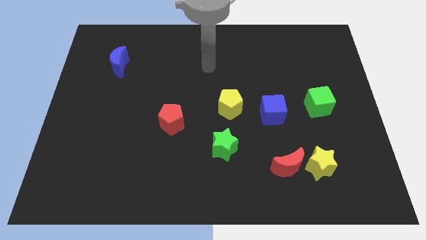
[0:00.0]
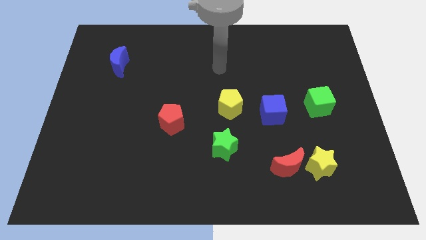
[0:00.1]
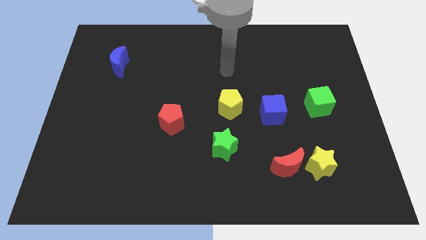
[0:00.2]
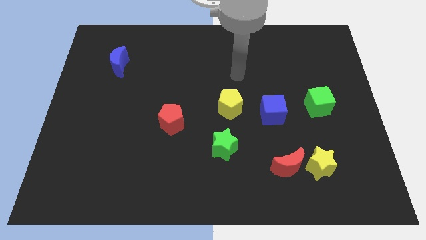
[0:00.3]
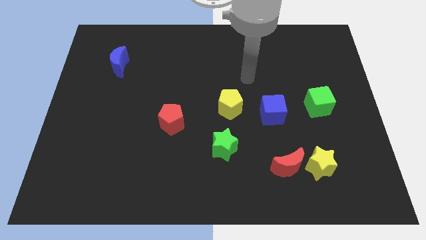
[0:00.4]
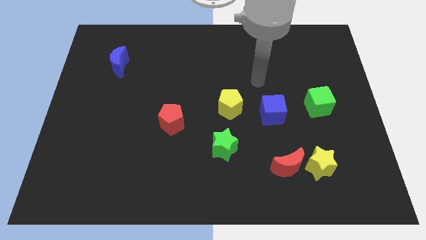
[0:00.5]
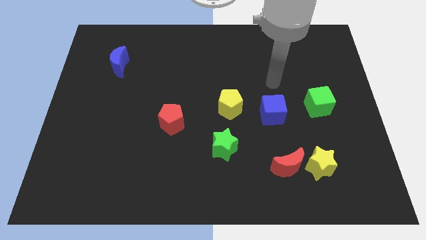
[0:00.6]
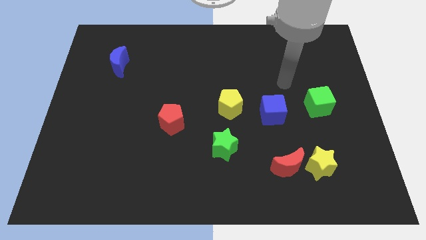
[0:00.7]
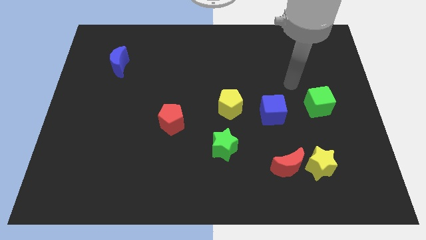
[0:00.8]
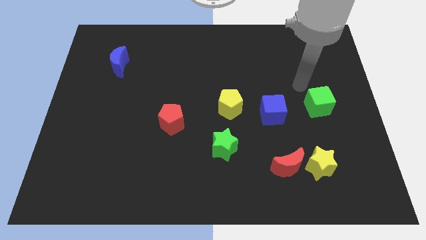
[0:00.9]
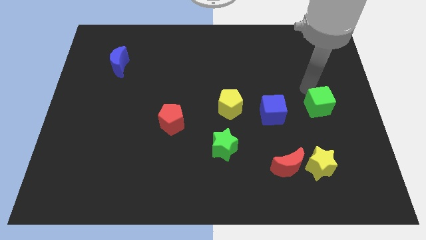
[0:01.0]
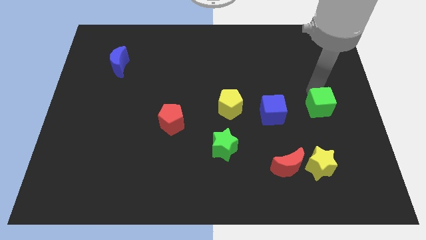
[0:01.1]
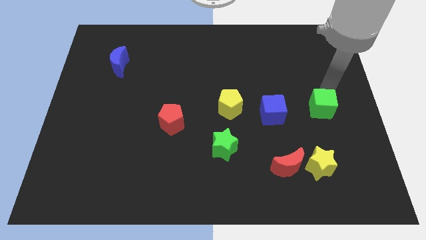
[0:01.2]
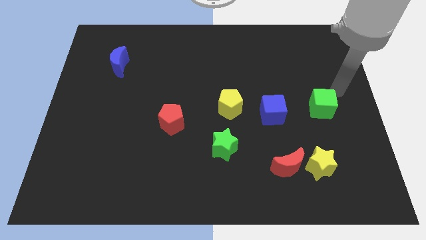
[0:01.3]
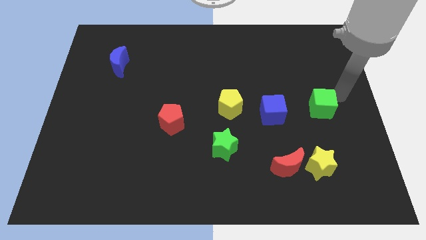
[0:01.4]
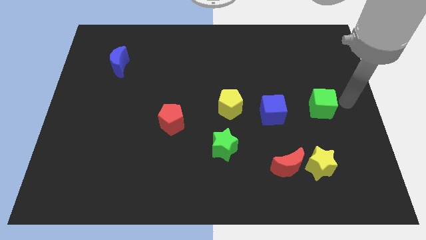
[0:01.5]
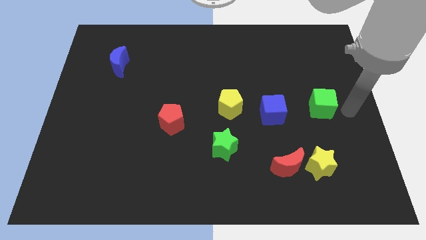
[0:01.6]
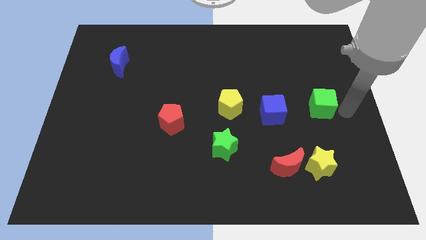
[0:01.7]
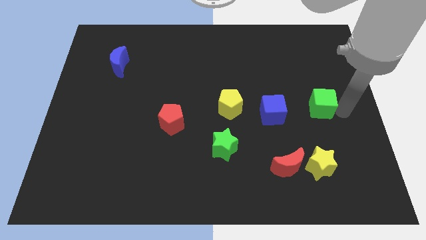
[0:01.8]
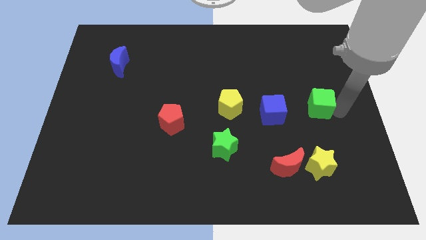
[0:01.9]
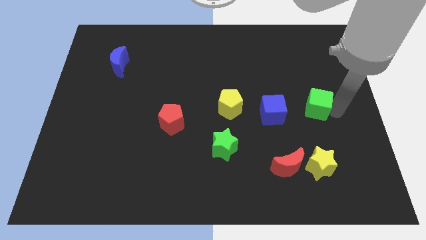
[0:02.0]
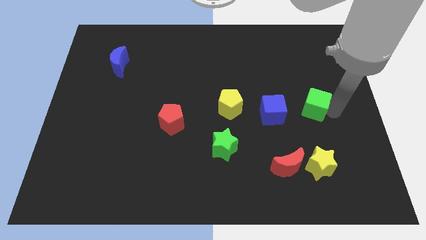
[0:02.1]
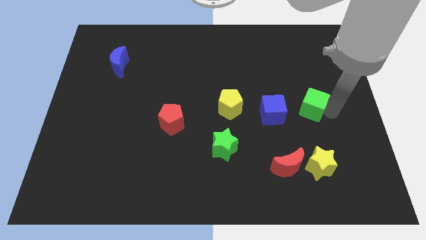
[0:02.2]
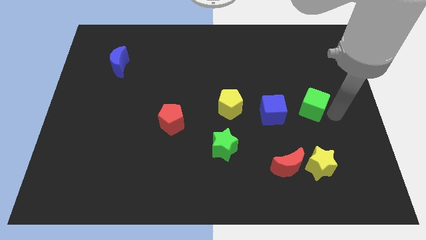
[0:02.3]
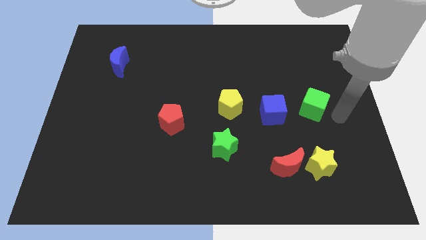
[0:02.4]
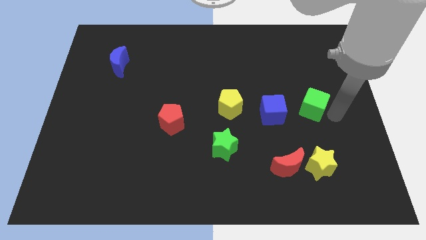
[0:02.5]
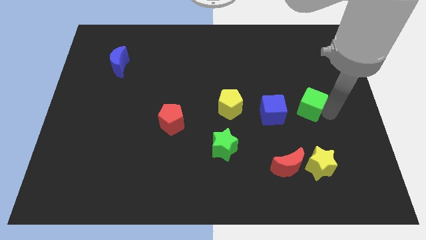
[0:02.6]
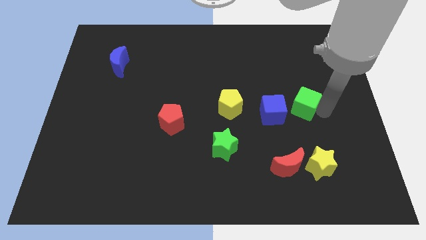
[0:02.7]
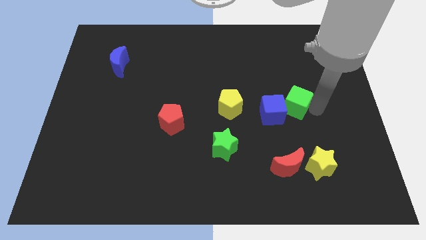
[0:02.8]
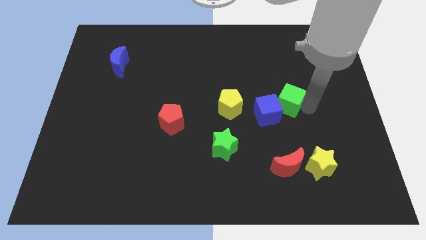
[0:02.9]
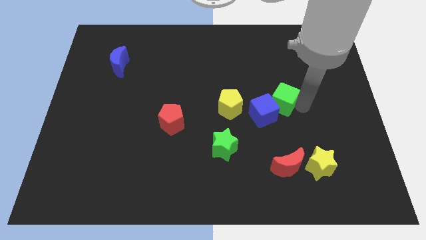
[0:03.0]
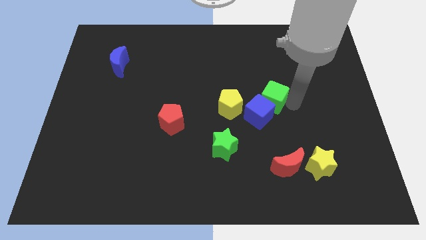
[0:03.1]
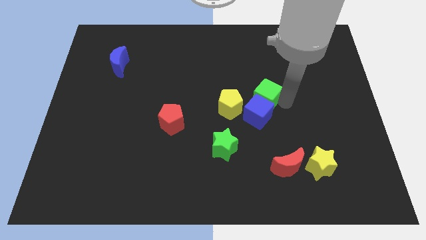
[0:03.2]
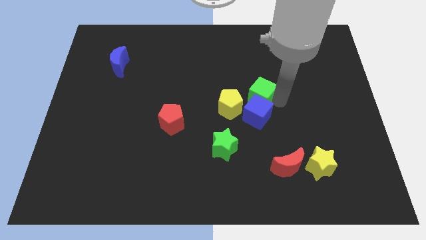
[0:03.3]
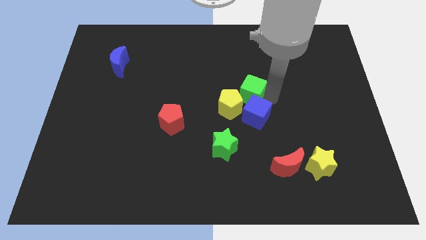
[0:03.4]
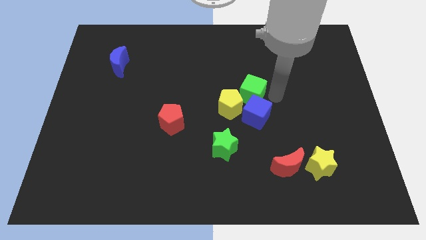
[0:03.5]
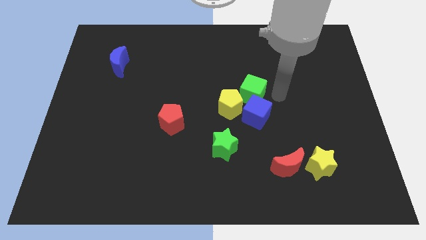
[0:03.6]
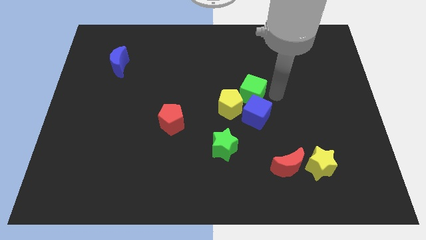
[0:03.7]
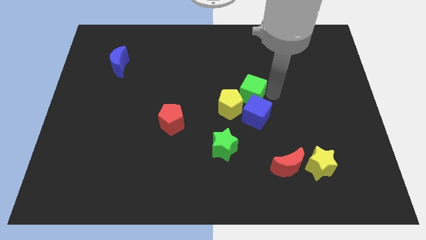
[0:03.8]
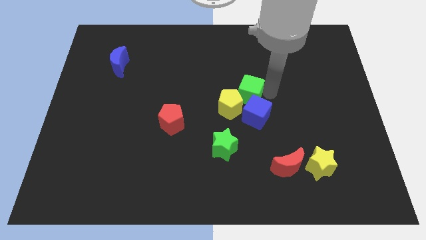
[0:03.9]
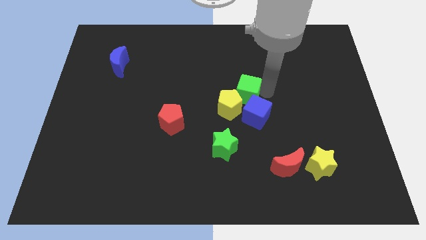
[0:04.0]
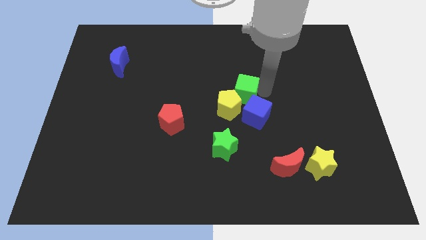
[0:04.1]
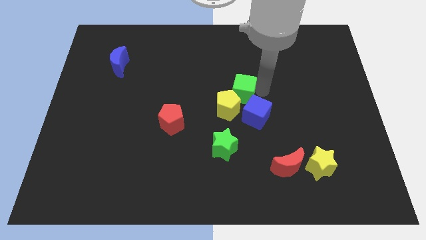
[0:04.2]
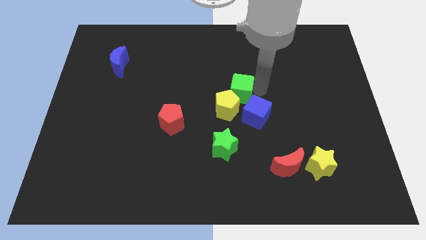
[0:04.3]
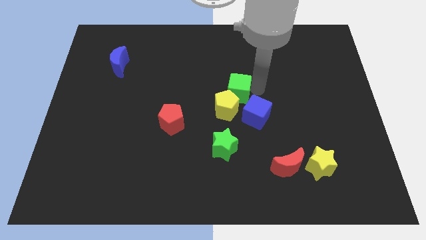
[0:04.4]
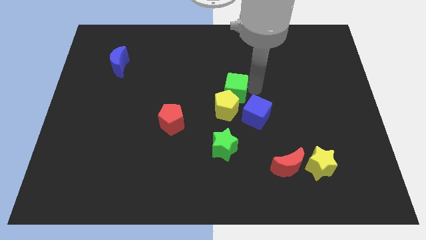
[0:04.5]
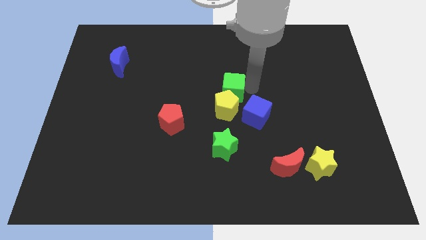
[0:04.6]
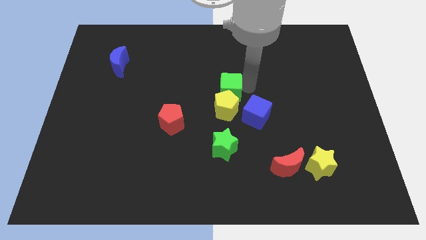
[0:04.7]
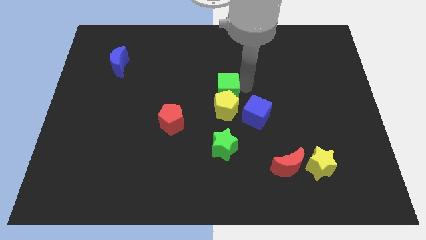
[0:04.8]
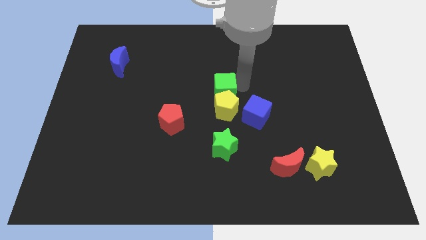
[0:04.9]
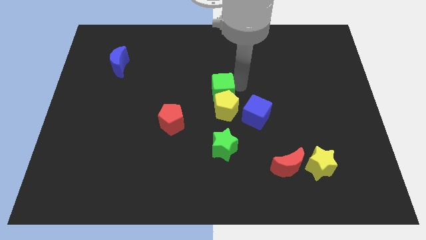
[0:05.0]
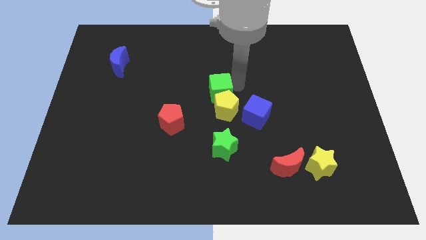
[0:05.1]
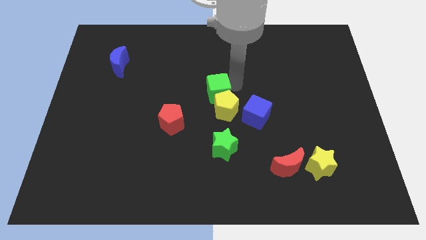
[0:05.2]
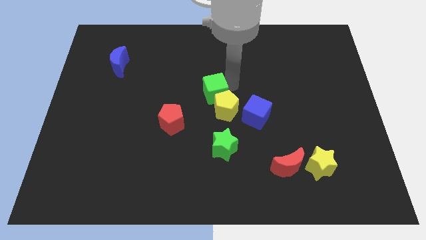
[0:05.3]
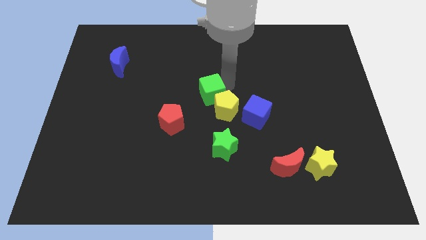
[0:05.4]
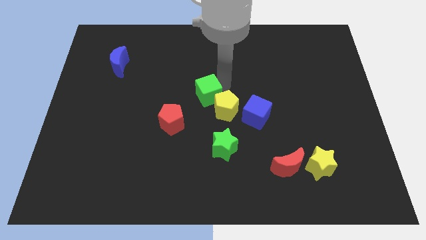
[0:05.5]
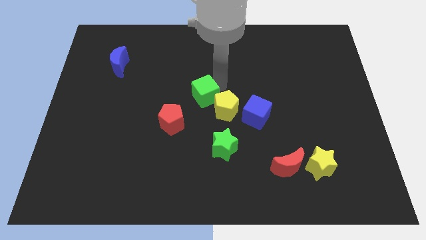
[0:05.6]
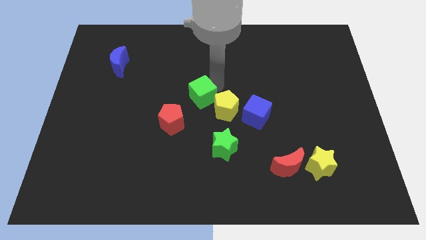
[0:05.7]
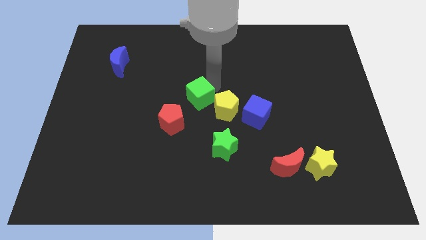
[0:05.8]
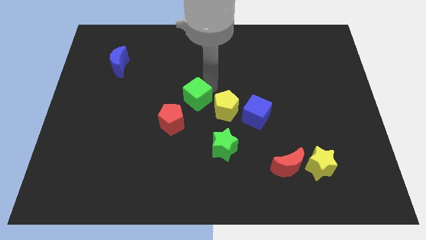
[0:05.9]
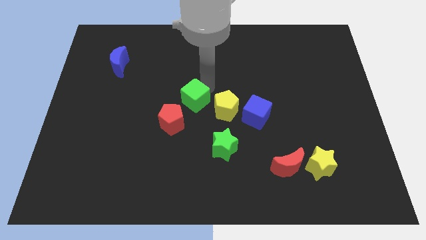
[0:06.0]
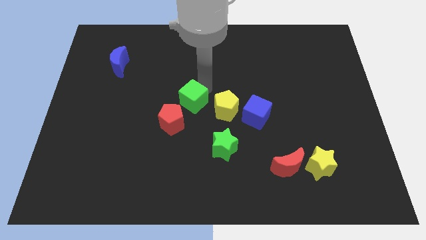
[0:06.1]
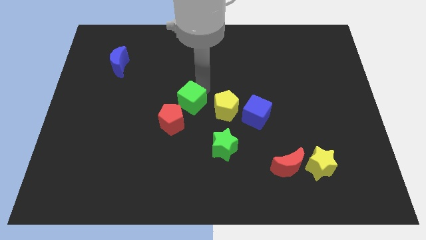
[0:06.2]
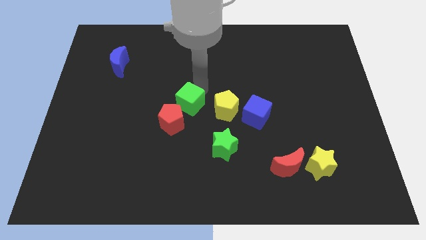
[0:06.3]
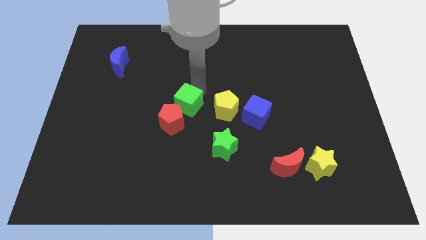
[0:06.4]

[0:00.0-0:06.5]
slide the green cube towards the red pentagon
